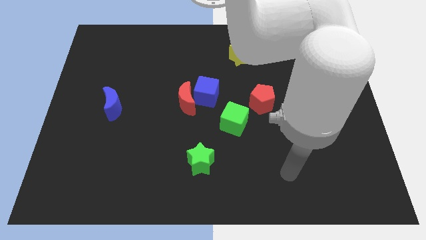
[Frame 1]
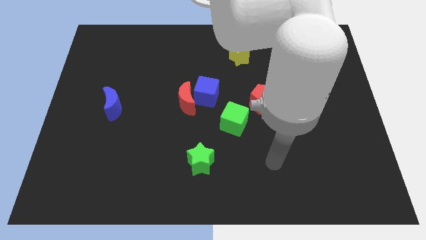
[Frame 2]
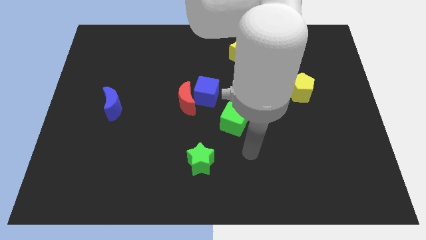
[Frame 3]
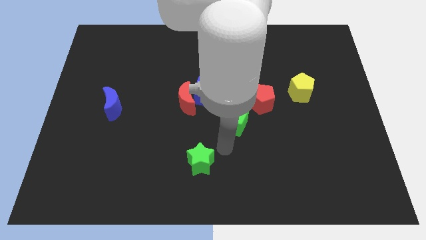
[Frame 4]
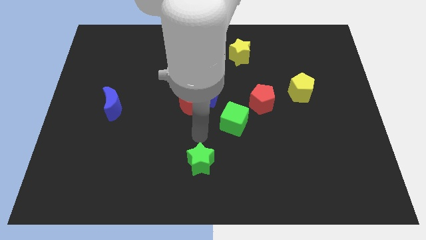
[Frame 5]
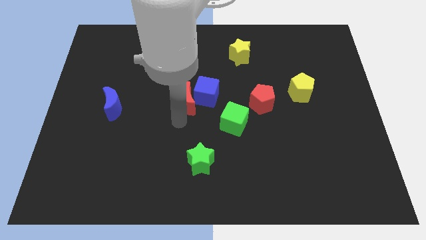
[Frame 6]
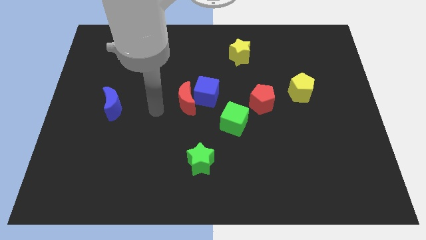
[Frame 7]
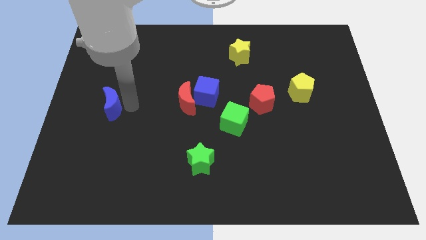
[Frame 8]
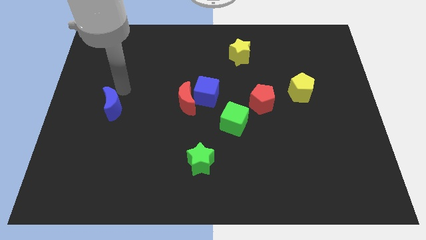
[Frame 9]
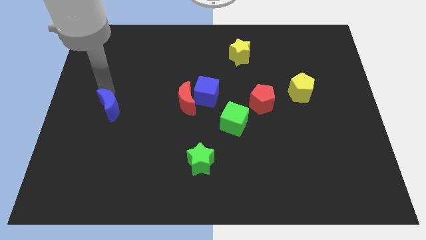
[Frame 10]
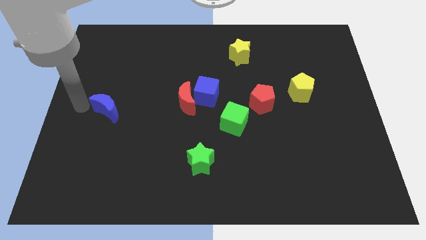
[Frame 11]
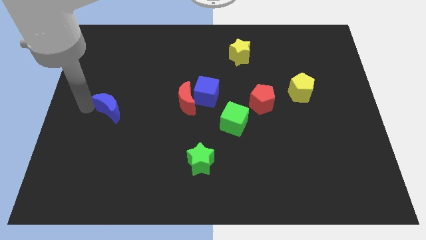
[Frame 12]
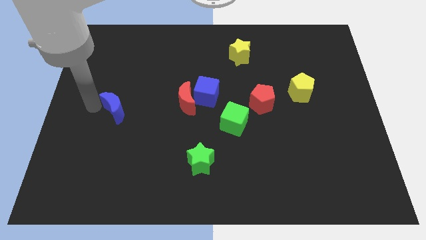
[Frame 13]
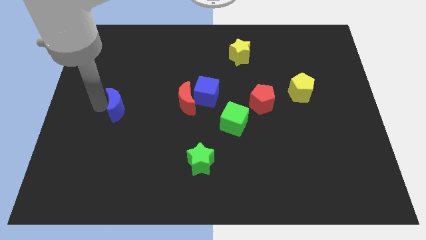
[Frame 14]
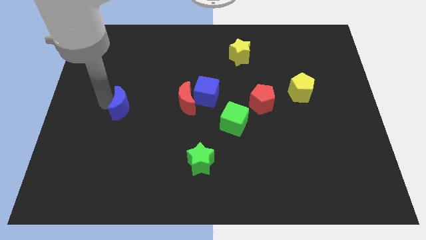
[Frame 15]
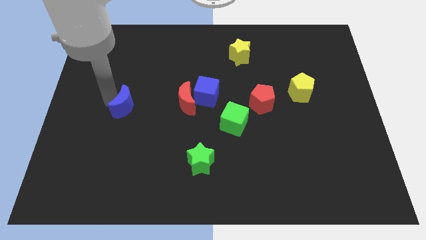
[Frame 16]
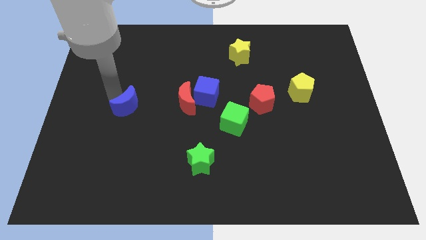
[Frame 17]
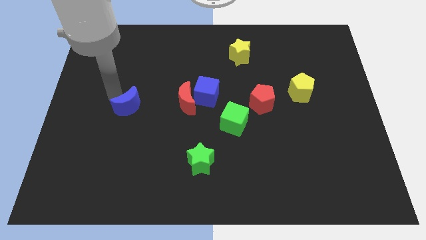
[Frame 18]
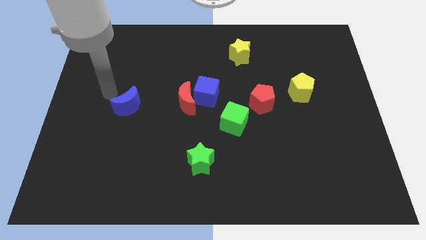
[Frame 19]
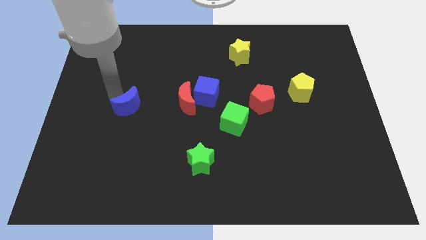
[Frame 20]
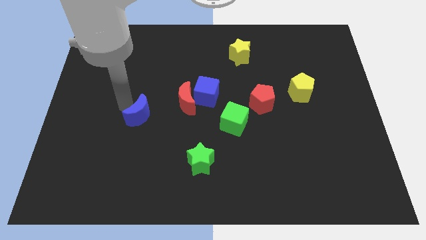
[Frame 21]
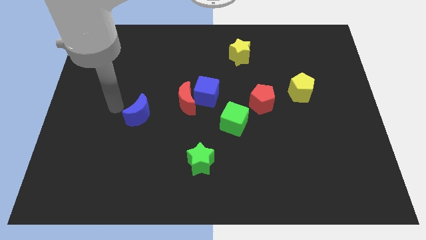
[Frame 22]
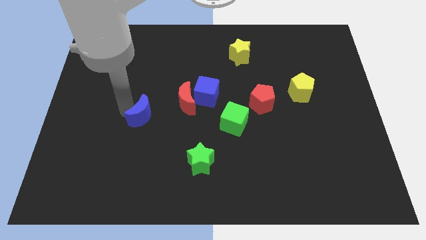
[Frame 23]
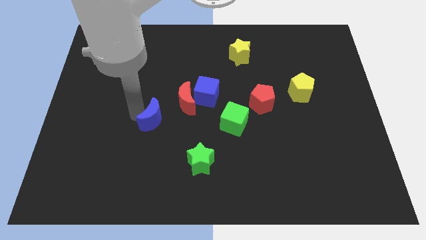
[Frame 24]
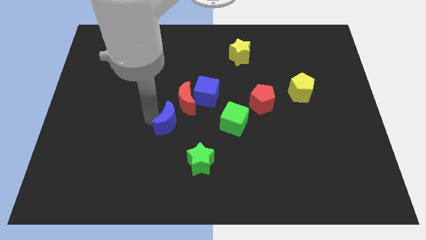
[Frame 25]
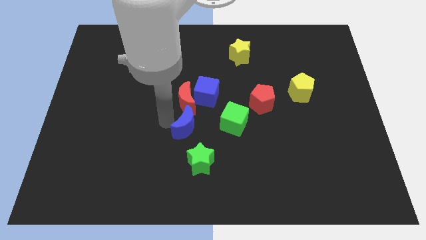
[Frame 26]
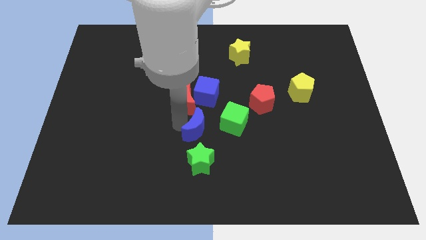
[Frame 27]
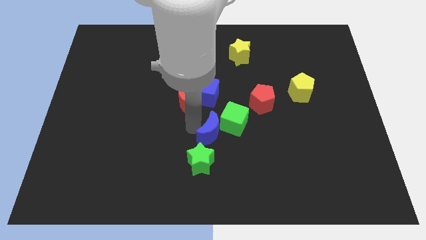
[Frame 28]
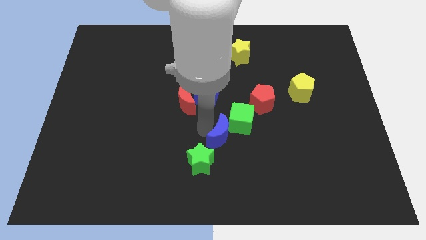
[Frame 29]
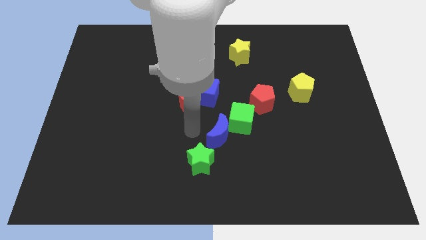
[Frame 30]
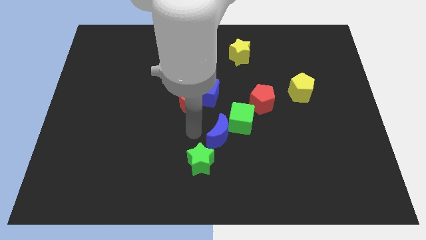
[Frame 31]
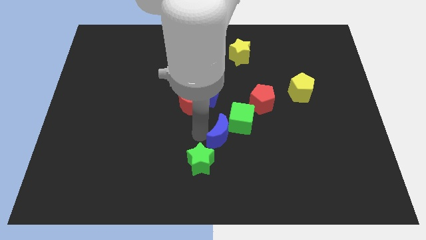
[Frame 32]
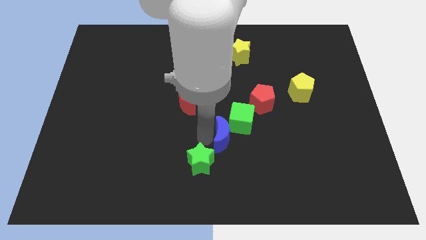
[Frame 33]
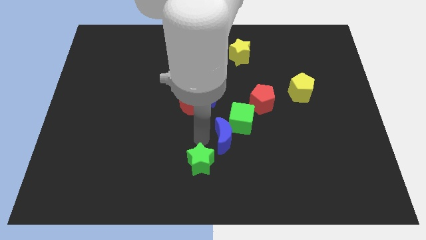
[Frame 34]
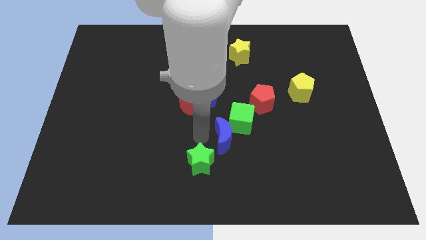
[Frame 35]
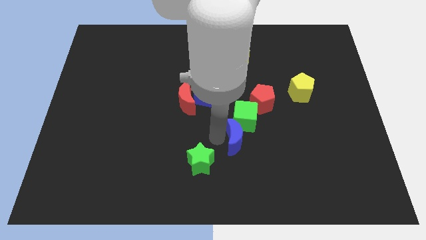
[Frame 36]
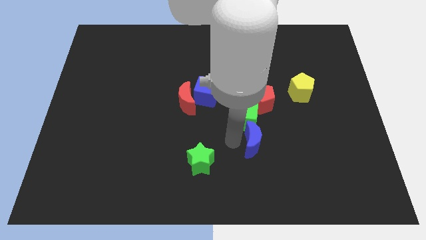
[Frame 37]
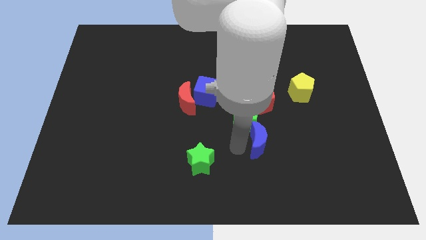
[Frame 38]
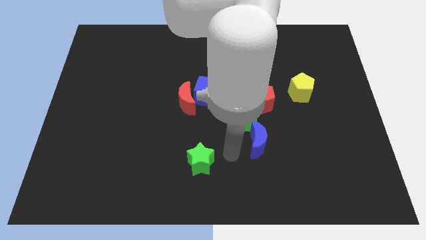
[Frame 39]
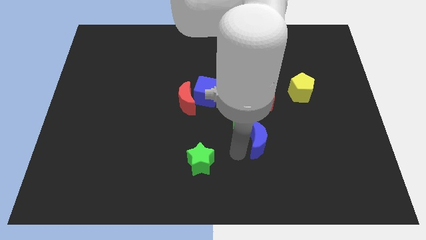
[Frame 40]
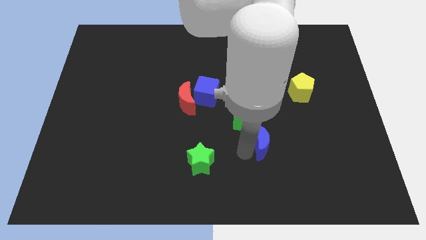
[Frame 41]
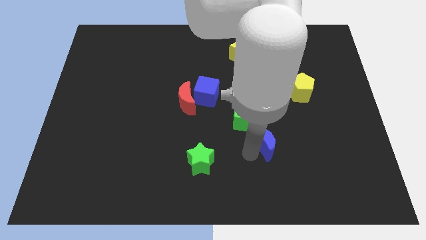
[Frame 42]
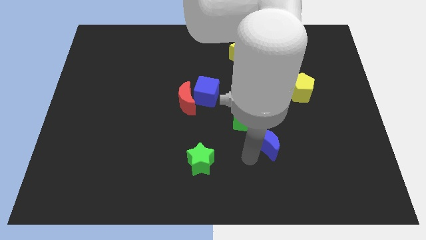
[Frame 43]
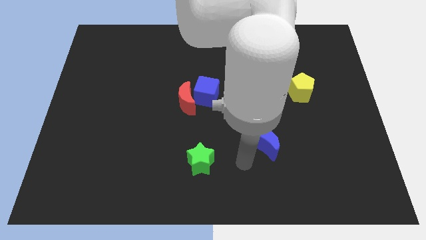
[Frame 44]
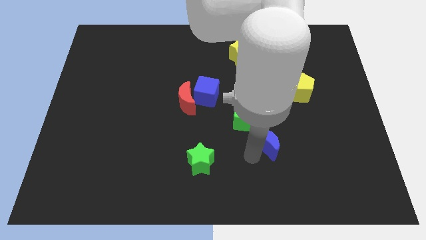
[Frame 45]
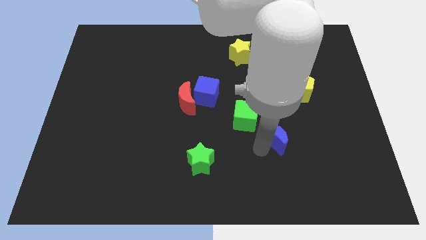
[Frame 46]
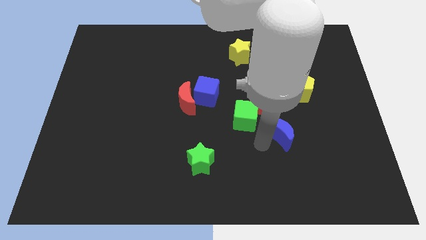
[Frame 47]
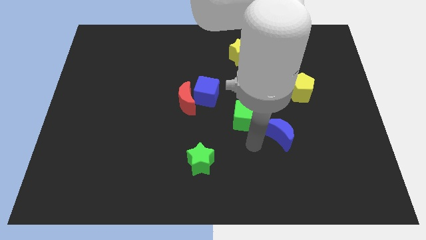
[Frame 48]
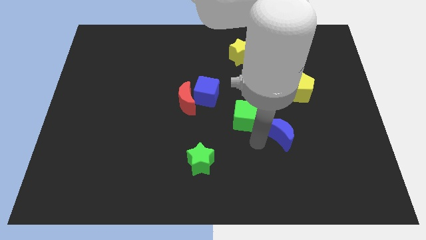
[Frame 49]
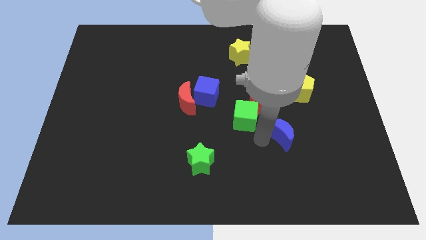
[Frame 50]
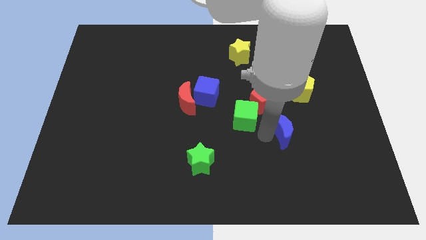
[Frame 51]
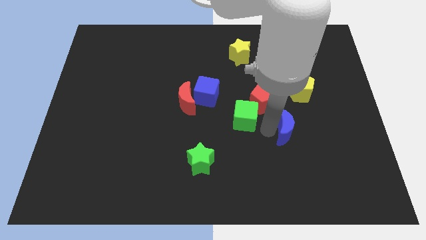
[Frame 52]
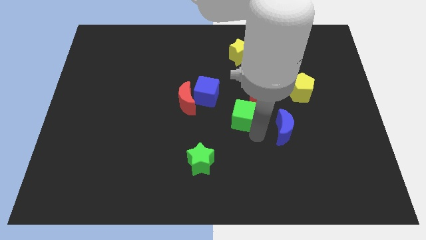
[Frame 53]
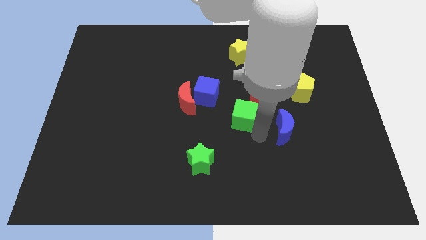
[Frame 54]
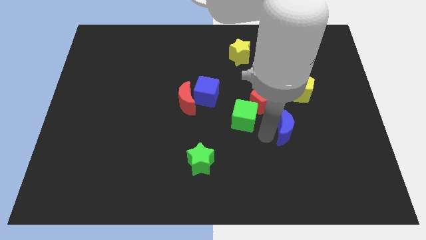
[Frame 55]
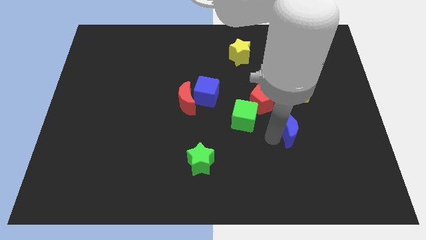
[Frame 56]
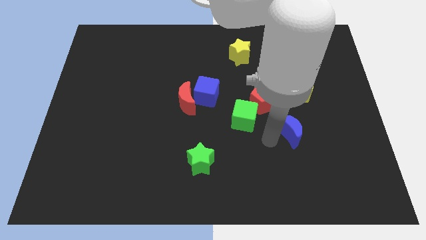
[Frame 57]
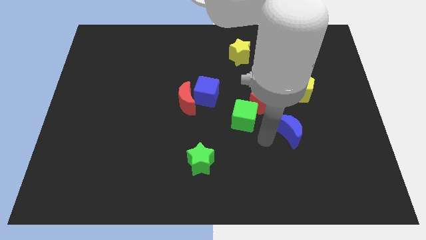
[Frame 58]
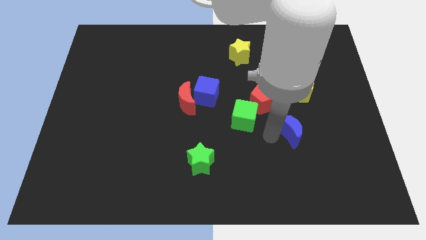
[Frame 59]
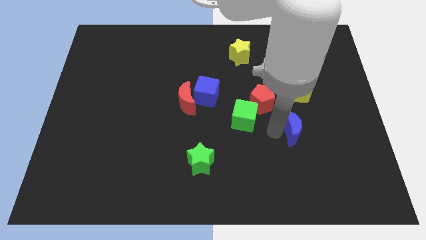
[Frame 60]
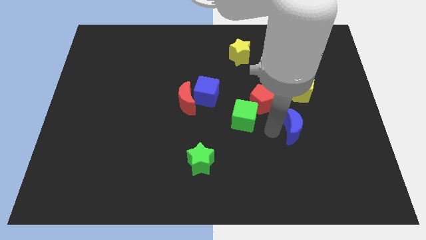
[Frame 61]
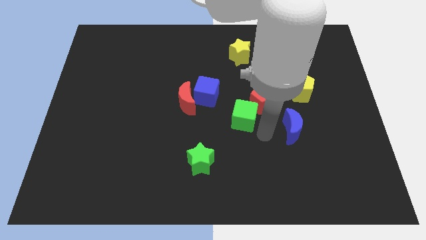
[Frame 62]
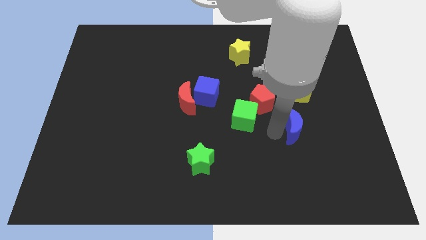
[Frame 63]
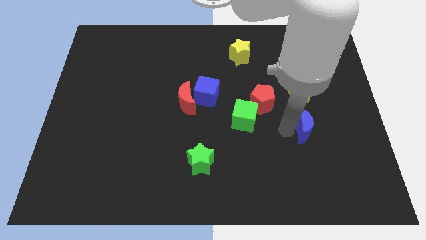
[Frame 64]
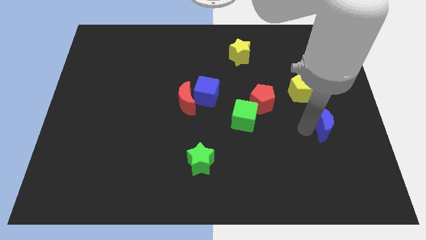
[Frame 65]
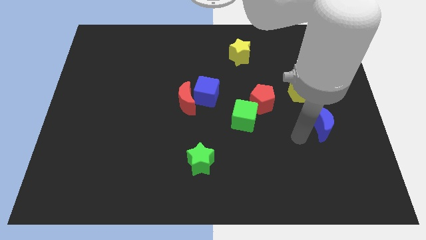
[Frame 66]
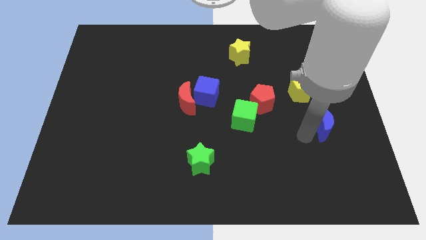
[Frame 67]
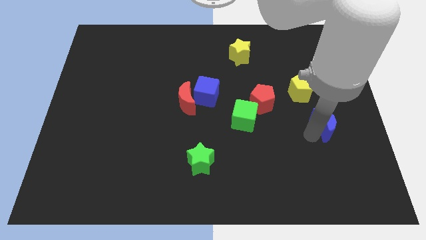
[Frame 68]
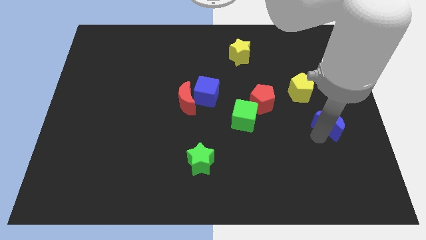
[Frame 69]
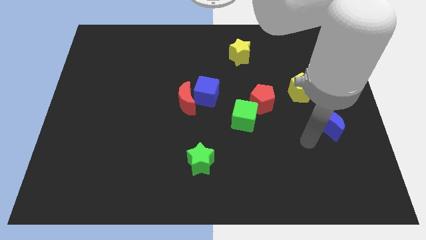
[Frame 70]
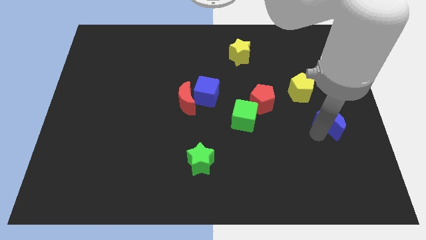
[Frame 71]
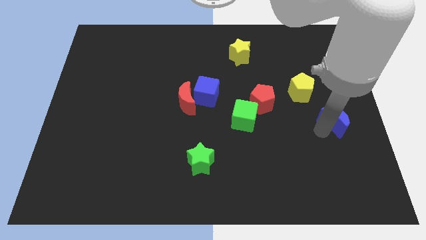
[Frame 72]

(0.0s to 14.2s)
move the blue moon to the right side of the board
